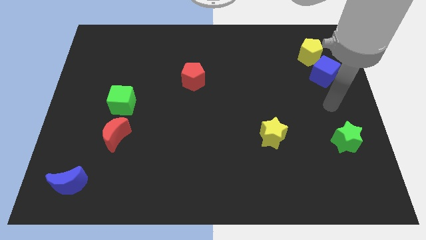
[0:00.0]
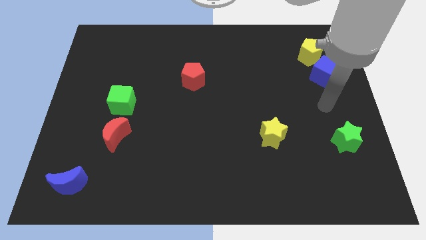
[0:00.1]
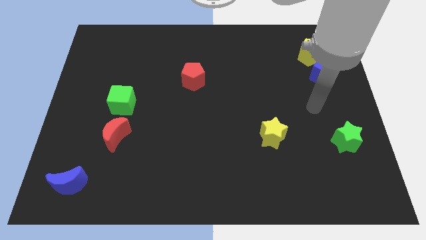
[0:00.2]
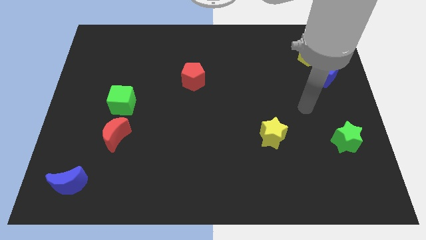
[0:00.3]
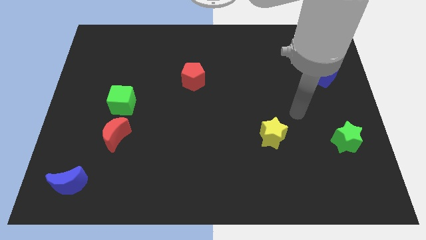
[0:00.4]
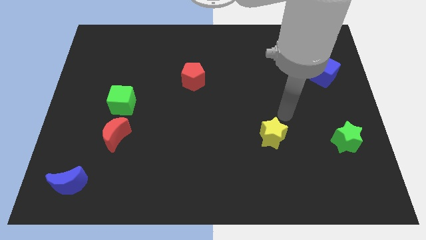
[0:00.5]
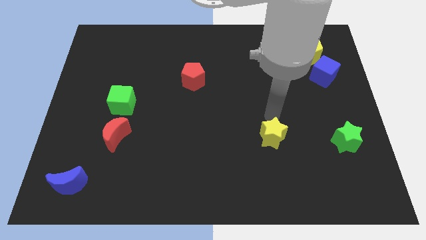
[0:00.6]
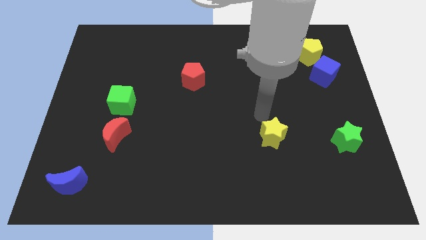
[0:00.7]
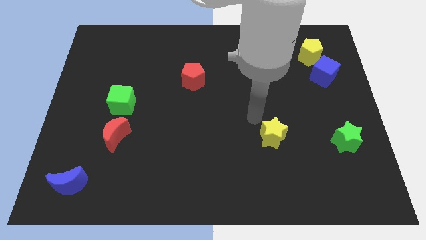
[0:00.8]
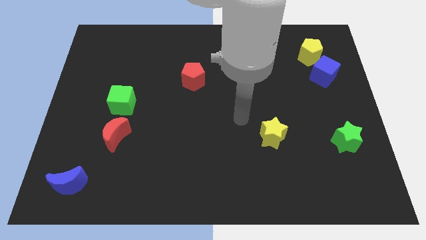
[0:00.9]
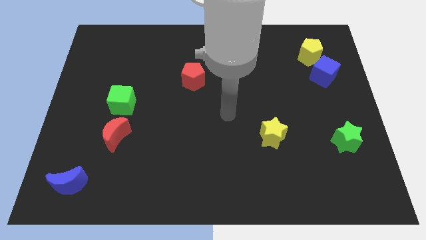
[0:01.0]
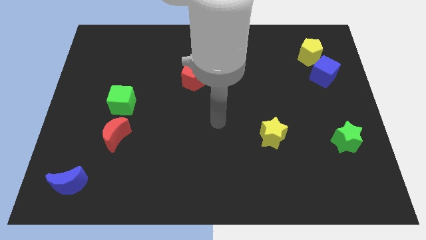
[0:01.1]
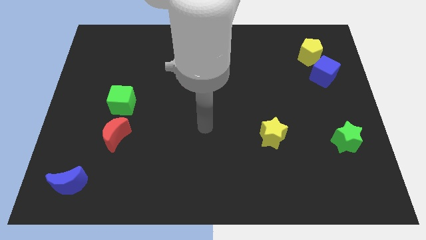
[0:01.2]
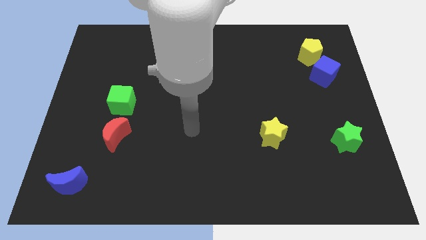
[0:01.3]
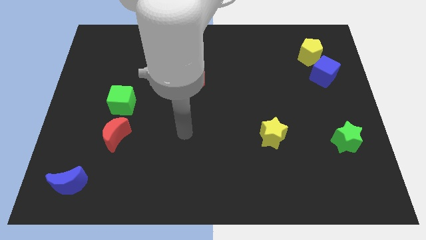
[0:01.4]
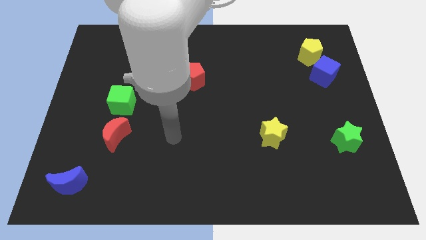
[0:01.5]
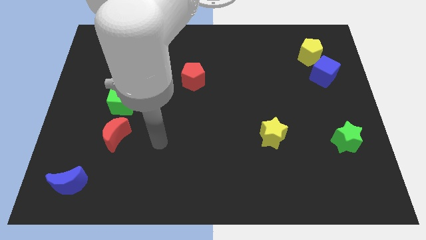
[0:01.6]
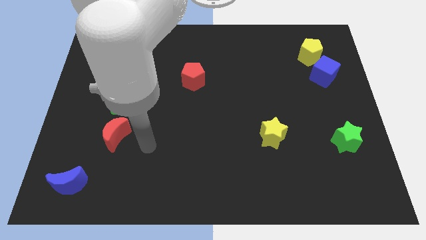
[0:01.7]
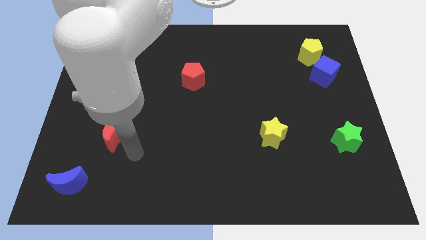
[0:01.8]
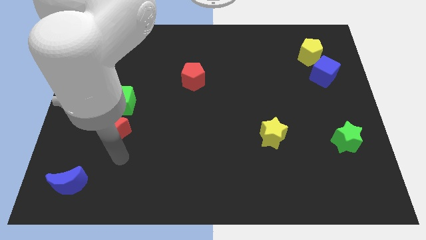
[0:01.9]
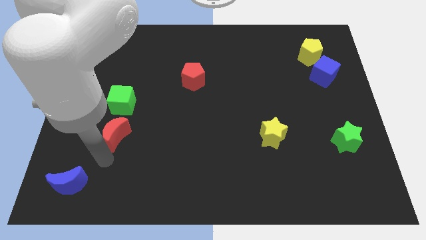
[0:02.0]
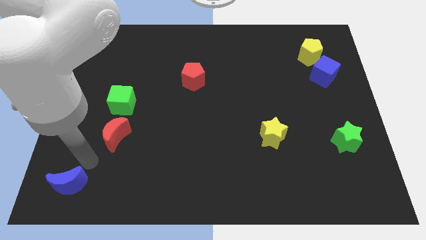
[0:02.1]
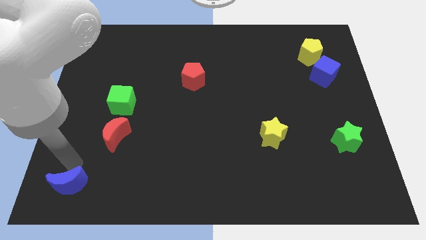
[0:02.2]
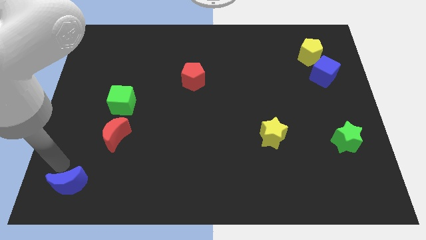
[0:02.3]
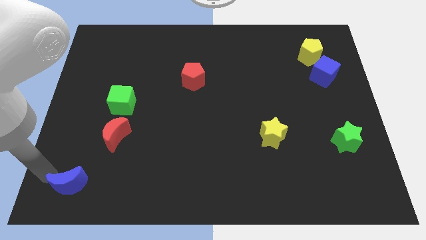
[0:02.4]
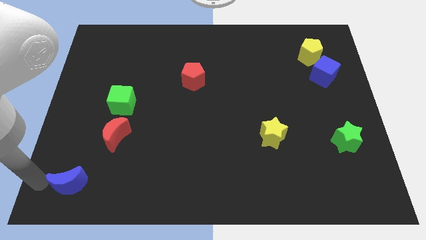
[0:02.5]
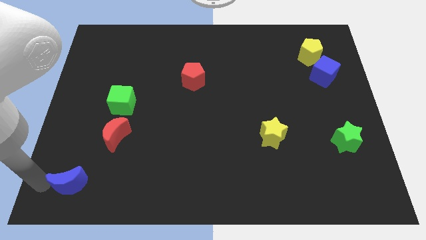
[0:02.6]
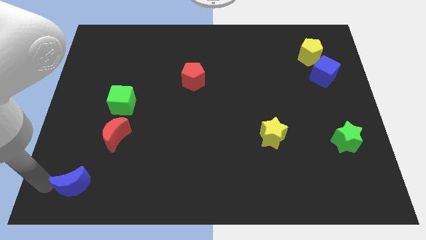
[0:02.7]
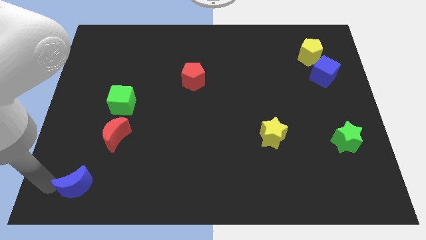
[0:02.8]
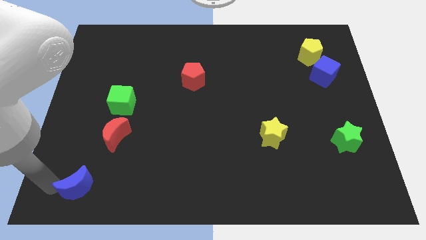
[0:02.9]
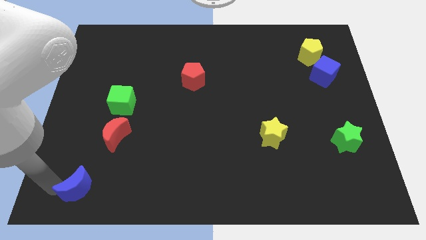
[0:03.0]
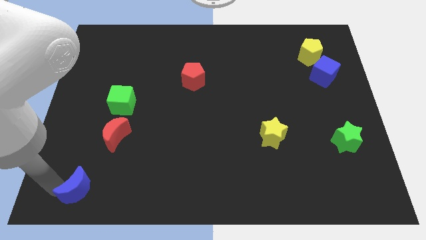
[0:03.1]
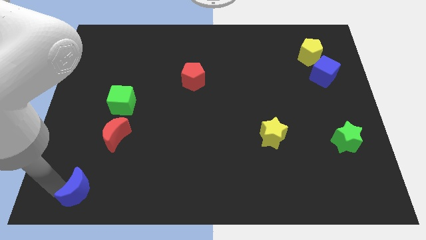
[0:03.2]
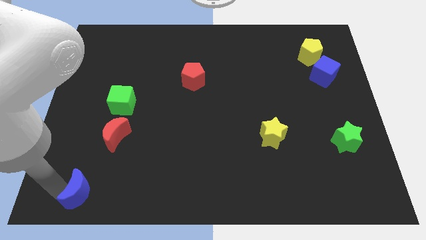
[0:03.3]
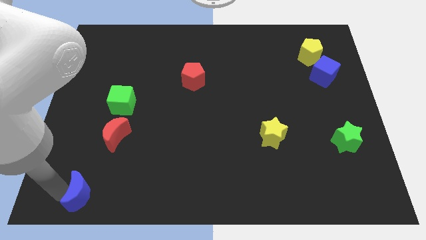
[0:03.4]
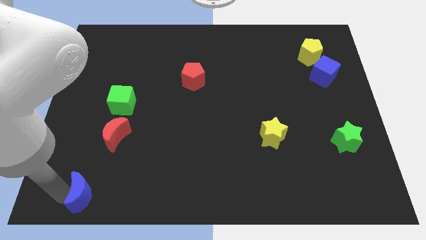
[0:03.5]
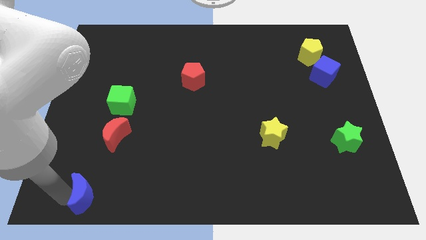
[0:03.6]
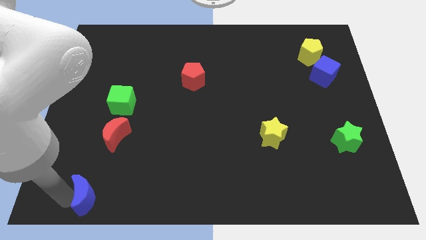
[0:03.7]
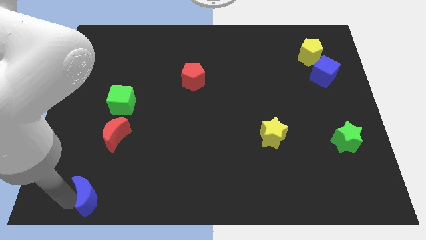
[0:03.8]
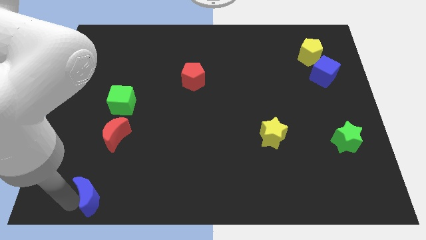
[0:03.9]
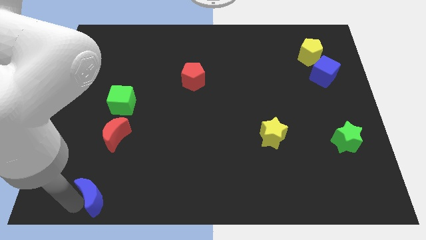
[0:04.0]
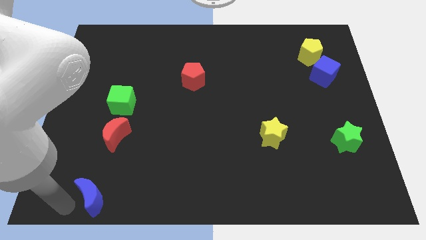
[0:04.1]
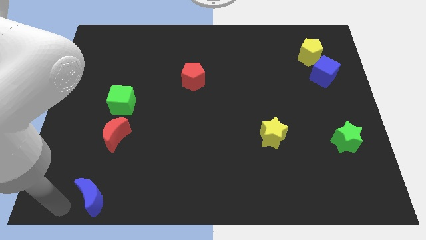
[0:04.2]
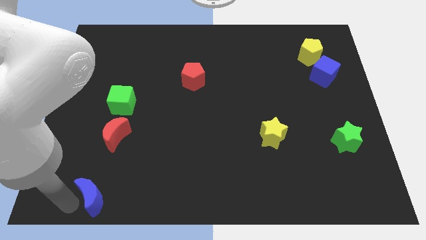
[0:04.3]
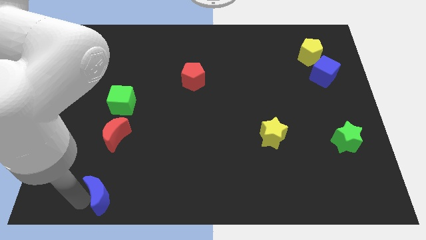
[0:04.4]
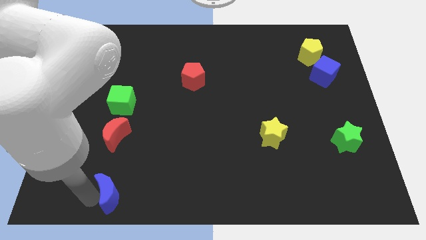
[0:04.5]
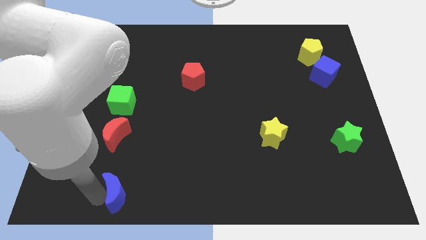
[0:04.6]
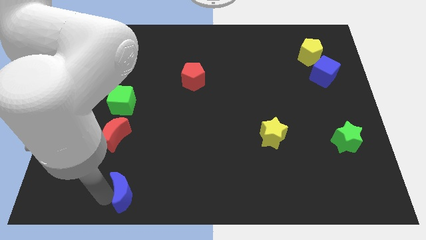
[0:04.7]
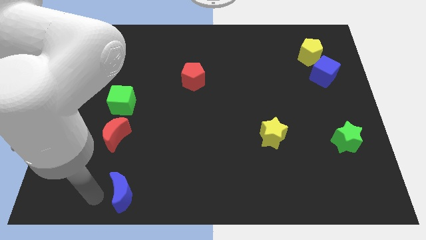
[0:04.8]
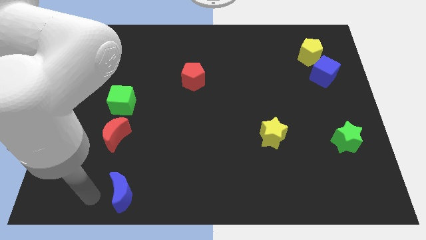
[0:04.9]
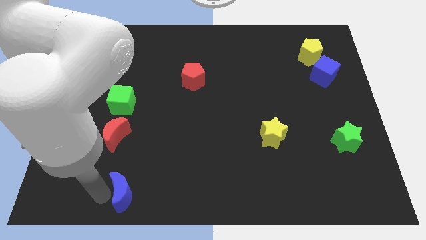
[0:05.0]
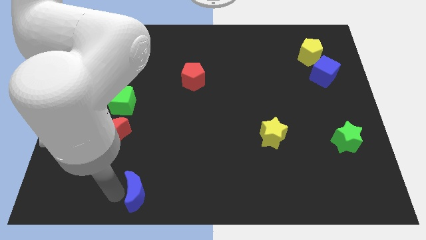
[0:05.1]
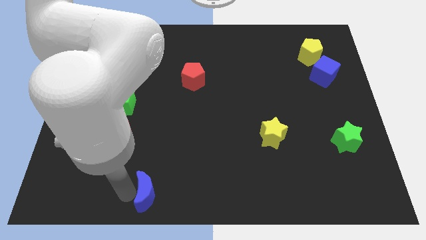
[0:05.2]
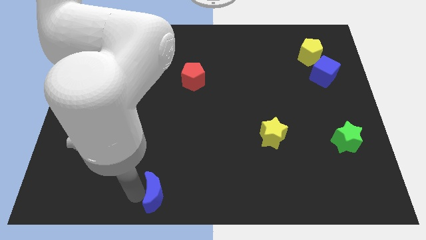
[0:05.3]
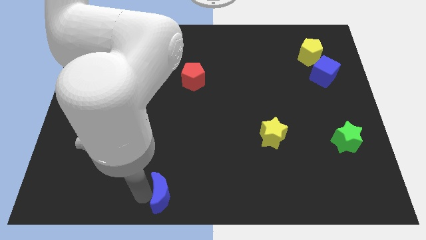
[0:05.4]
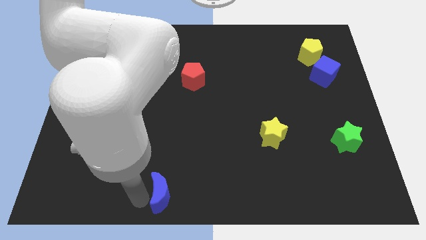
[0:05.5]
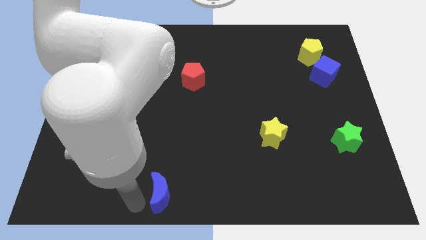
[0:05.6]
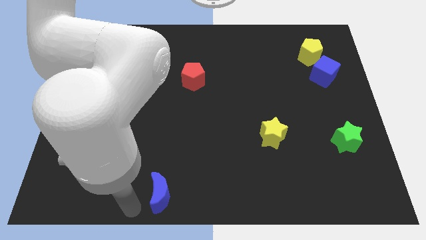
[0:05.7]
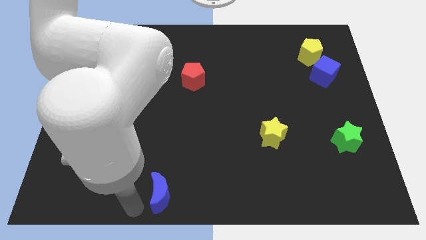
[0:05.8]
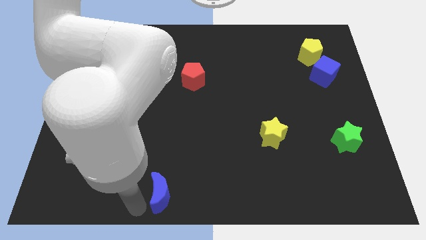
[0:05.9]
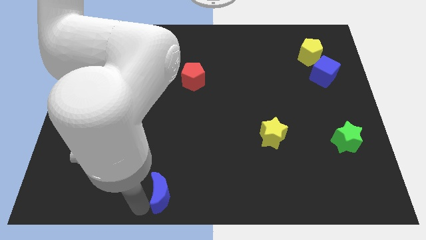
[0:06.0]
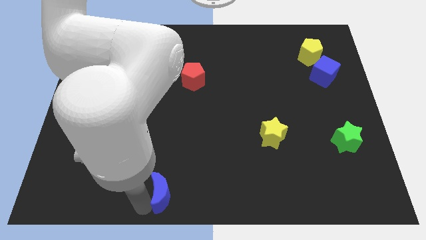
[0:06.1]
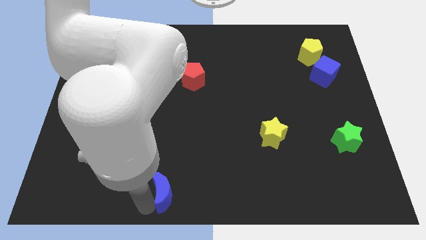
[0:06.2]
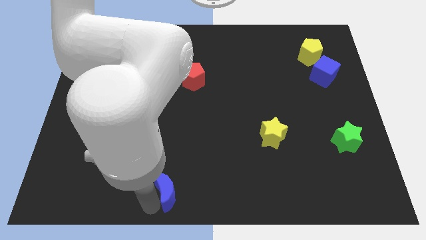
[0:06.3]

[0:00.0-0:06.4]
slide the blue moon right

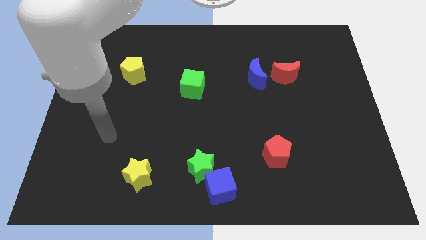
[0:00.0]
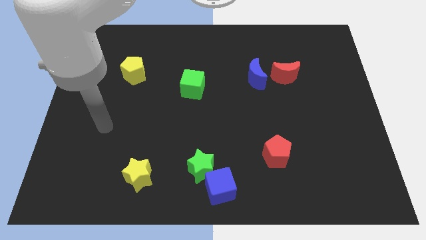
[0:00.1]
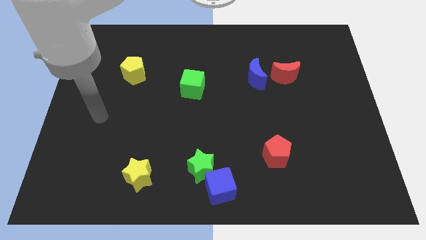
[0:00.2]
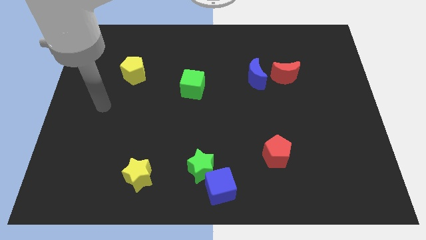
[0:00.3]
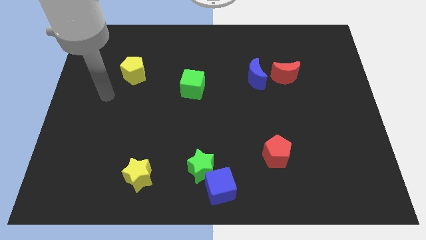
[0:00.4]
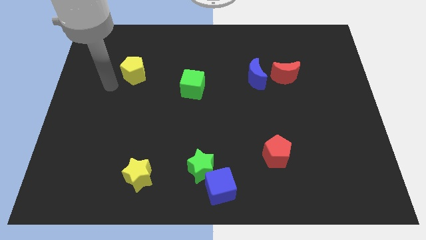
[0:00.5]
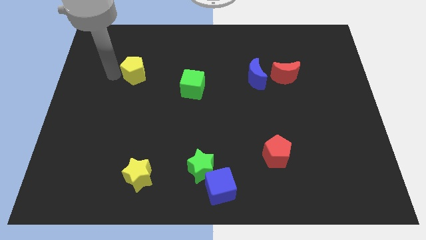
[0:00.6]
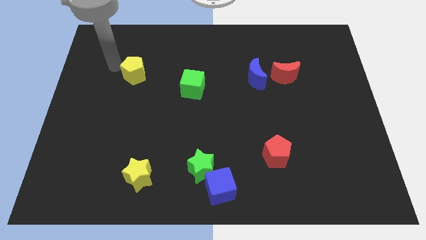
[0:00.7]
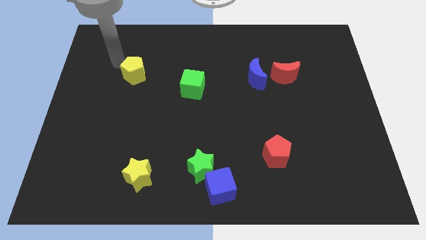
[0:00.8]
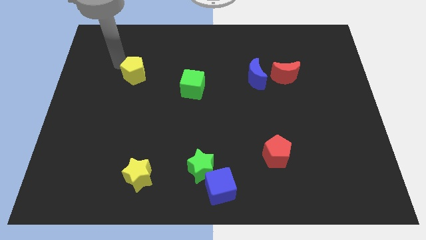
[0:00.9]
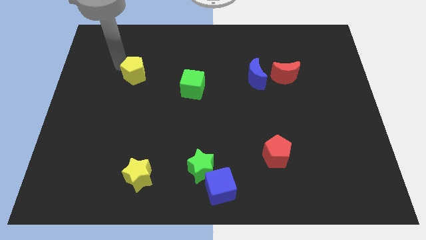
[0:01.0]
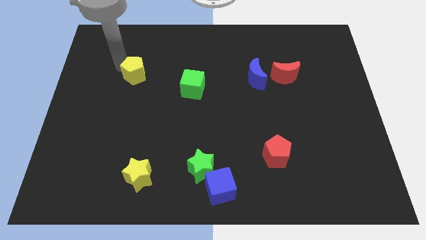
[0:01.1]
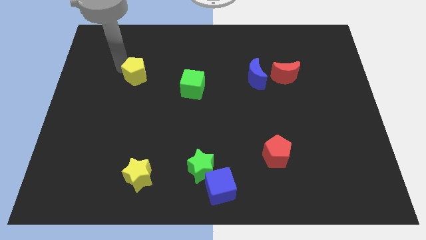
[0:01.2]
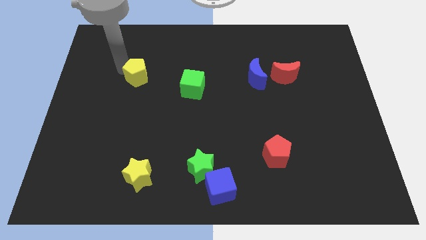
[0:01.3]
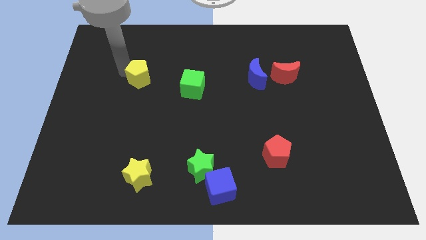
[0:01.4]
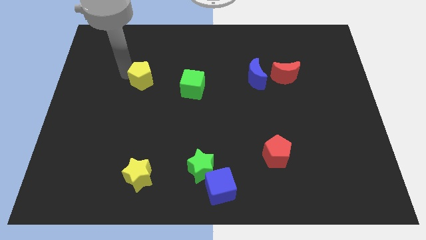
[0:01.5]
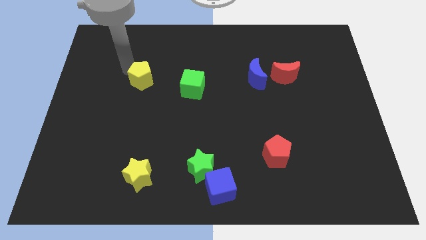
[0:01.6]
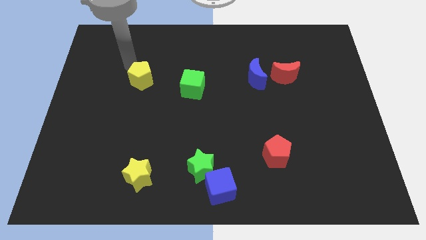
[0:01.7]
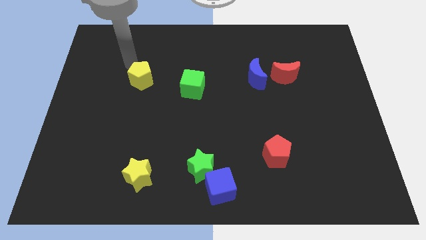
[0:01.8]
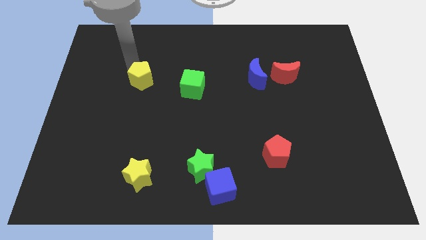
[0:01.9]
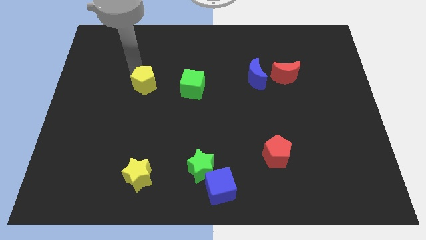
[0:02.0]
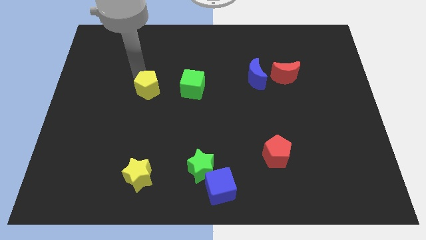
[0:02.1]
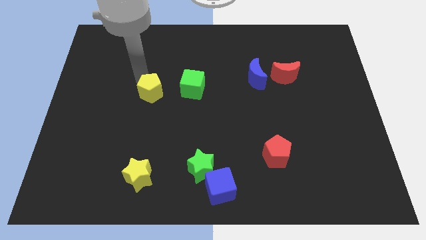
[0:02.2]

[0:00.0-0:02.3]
move the yellow pentagon down and to the right a bit
